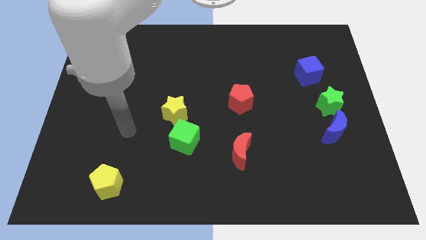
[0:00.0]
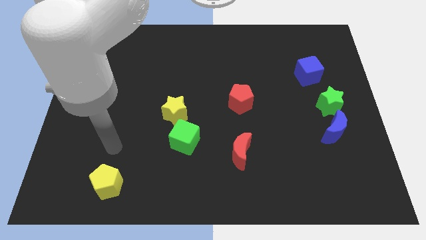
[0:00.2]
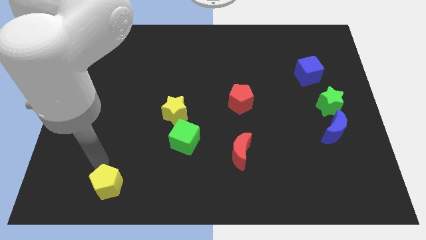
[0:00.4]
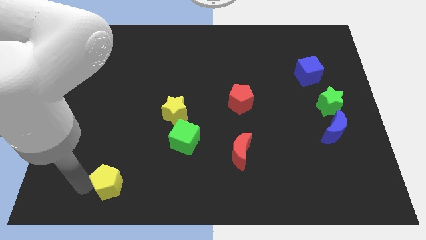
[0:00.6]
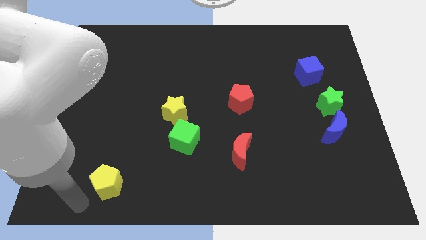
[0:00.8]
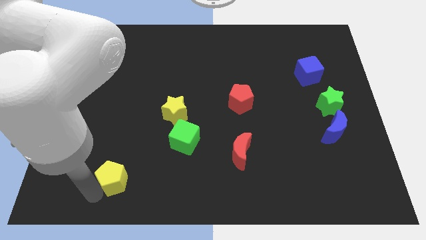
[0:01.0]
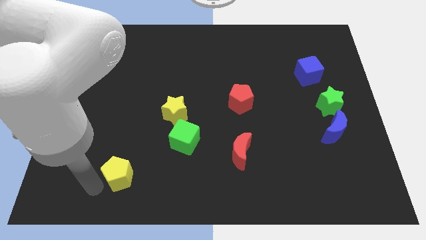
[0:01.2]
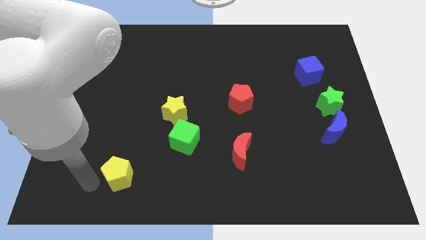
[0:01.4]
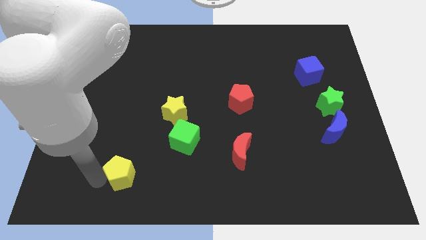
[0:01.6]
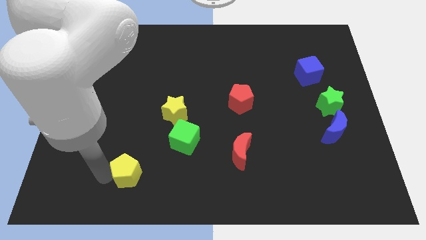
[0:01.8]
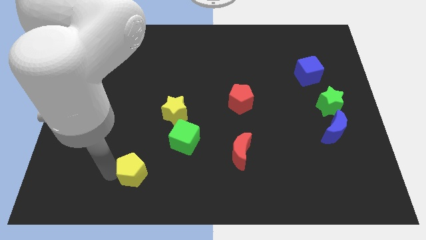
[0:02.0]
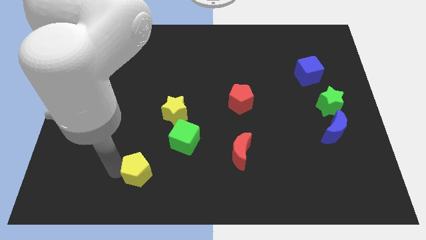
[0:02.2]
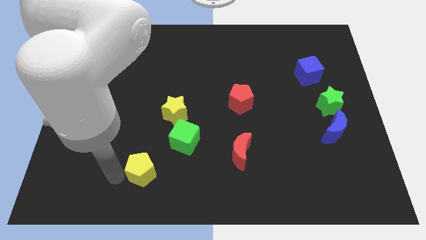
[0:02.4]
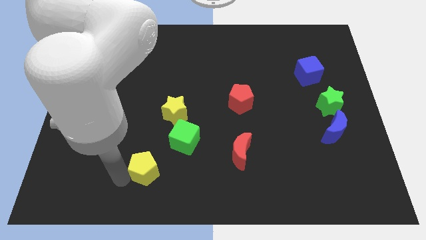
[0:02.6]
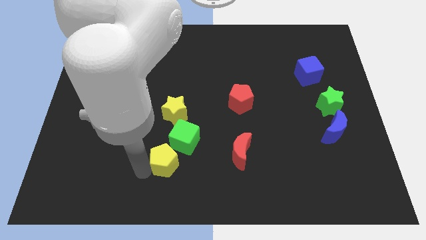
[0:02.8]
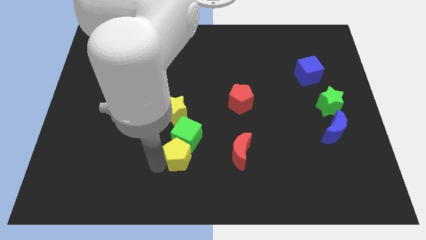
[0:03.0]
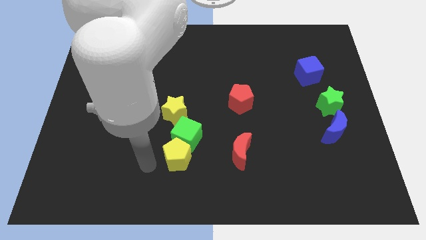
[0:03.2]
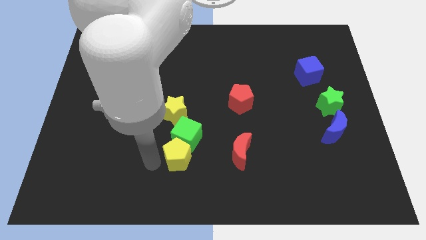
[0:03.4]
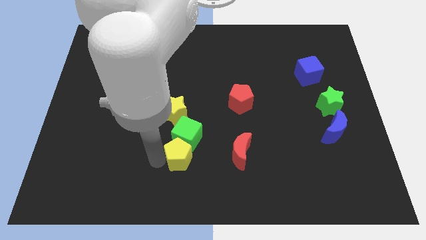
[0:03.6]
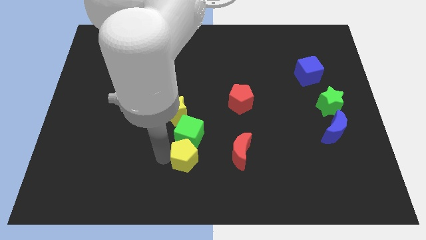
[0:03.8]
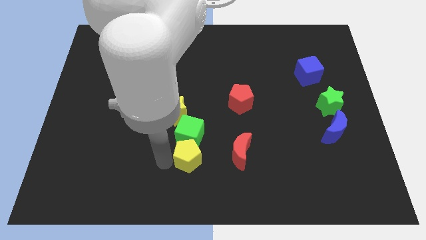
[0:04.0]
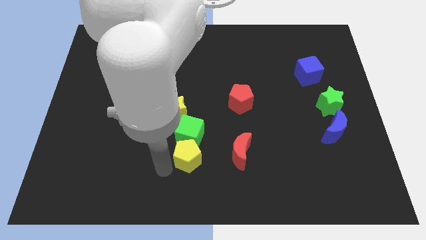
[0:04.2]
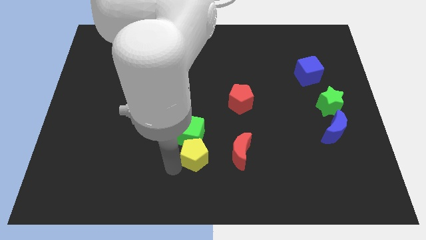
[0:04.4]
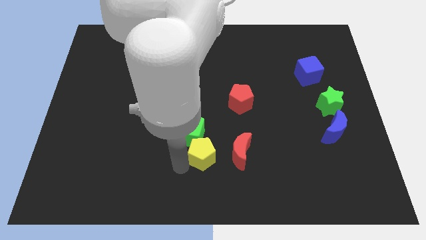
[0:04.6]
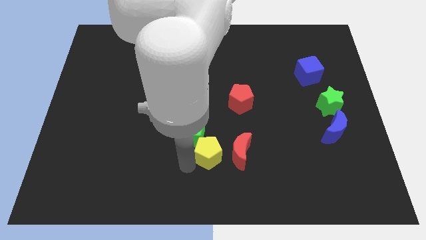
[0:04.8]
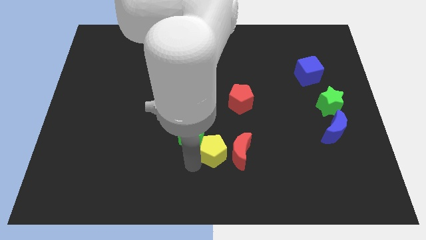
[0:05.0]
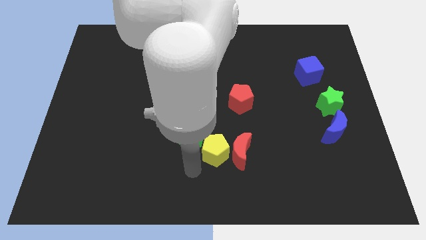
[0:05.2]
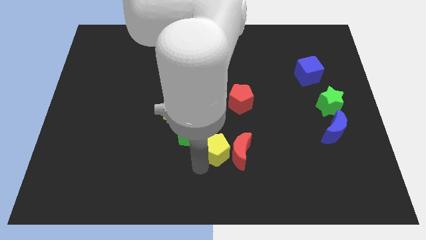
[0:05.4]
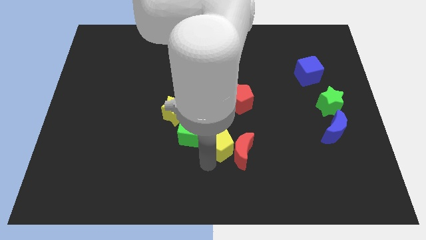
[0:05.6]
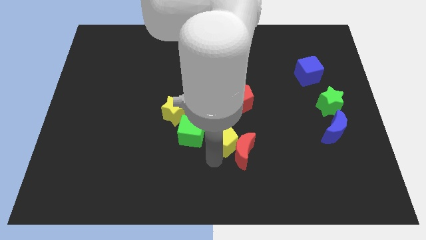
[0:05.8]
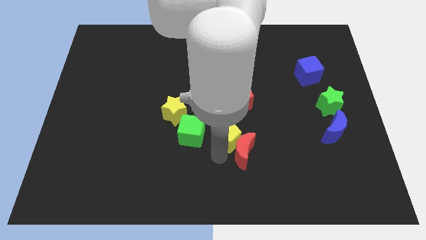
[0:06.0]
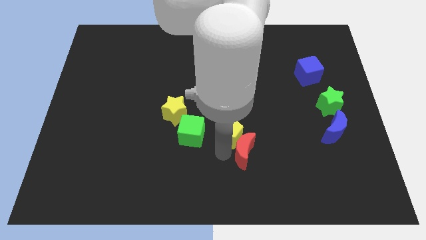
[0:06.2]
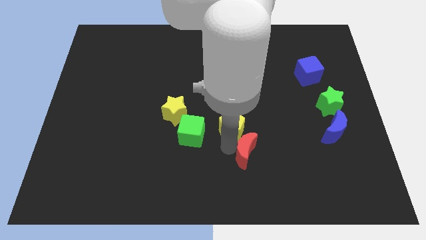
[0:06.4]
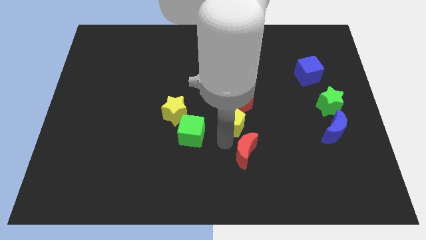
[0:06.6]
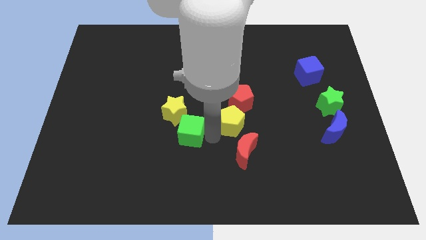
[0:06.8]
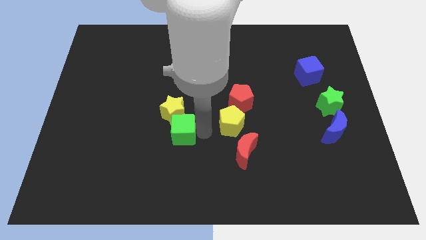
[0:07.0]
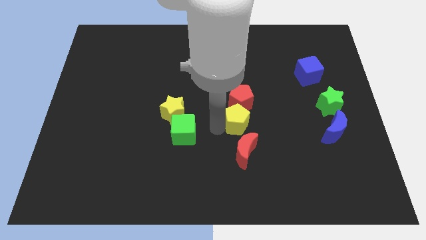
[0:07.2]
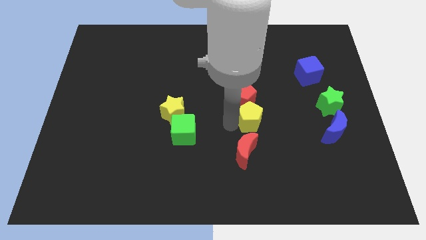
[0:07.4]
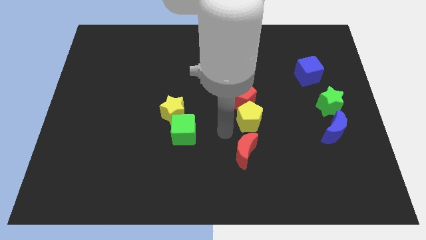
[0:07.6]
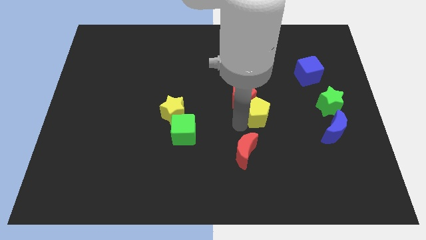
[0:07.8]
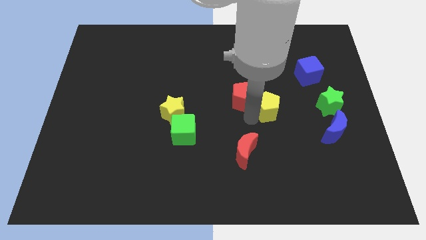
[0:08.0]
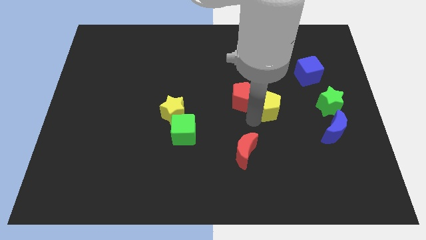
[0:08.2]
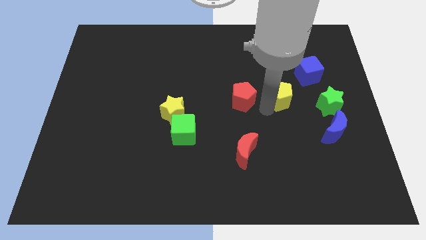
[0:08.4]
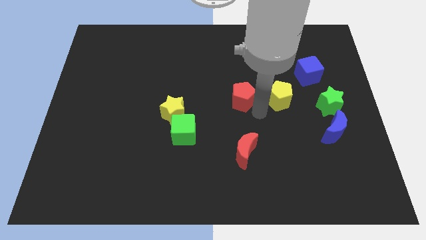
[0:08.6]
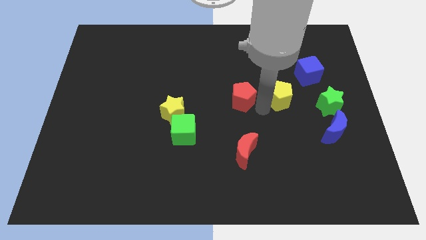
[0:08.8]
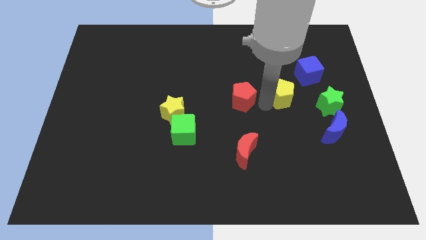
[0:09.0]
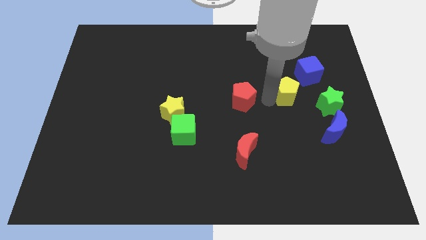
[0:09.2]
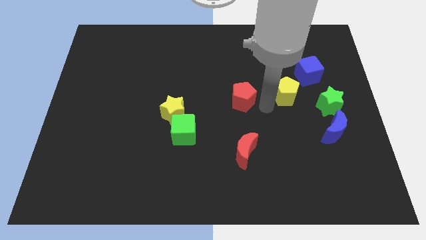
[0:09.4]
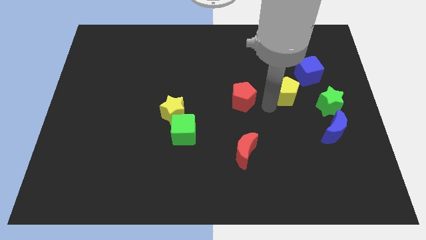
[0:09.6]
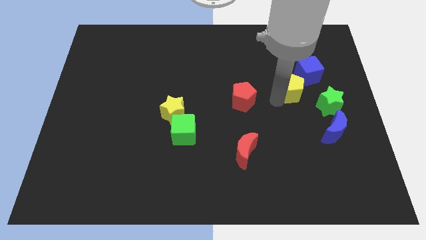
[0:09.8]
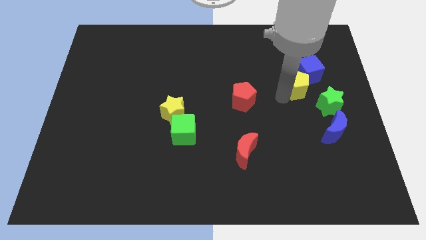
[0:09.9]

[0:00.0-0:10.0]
move the yellow pentagon close to the blue cube

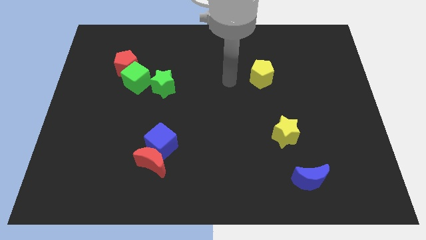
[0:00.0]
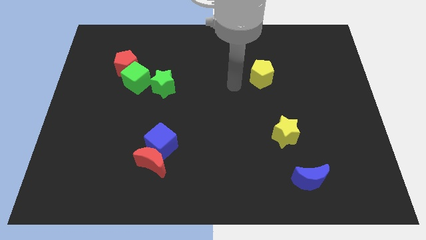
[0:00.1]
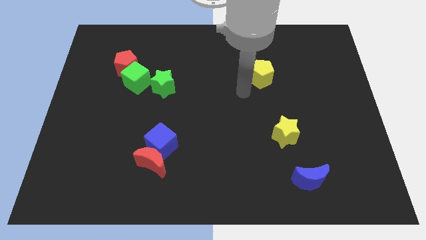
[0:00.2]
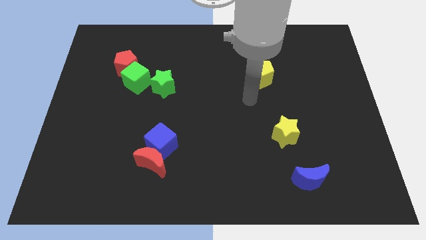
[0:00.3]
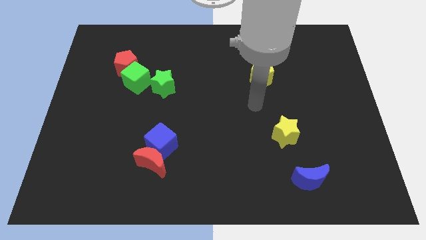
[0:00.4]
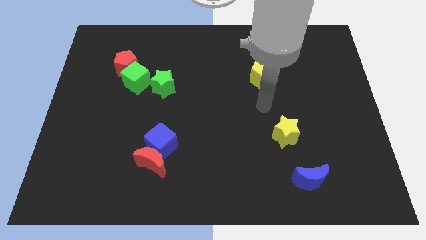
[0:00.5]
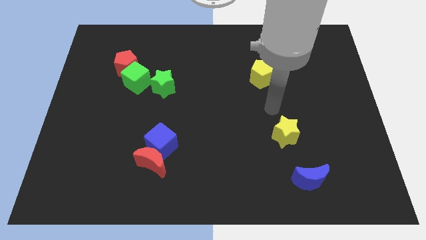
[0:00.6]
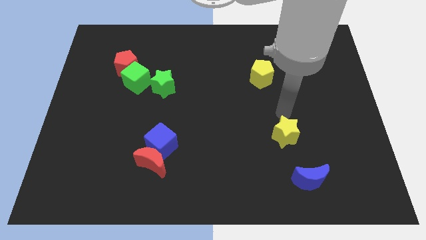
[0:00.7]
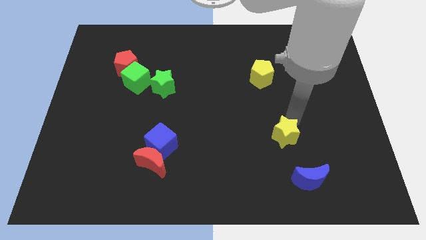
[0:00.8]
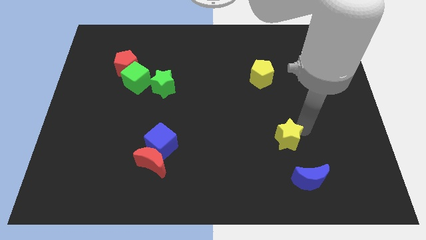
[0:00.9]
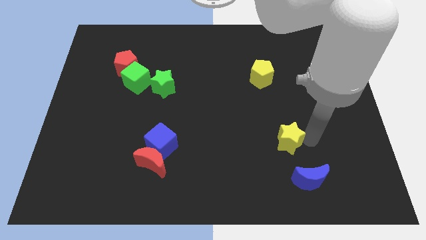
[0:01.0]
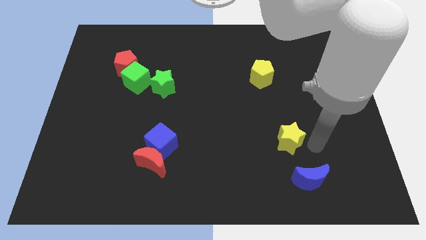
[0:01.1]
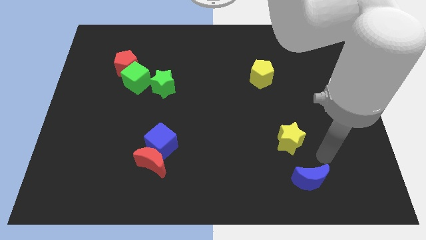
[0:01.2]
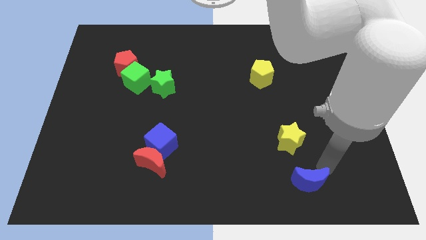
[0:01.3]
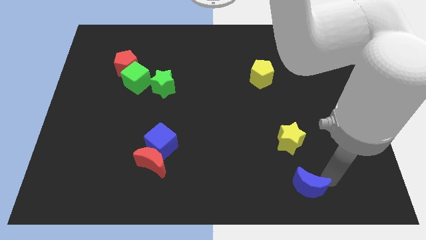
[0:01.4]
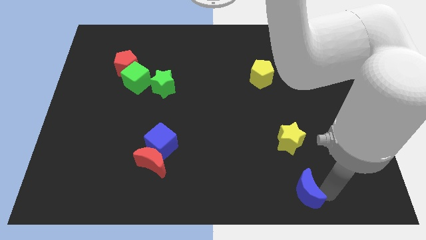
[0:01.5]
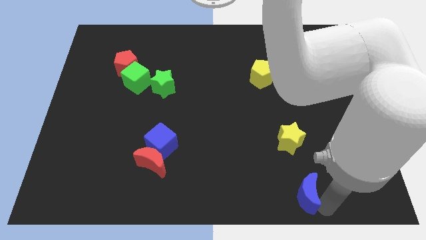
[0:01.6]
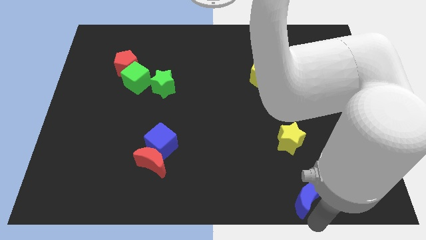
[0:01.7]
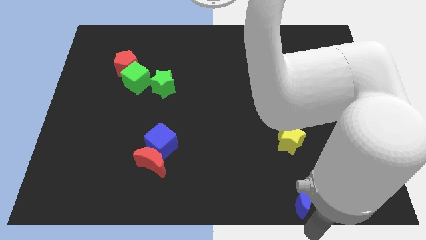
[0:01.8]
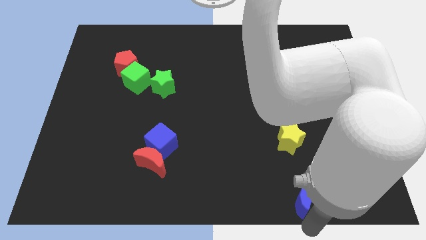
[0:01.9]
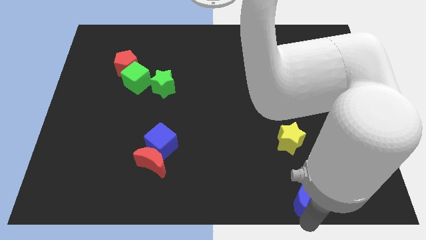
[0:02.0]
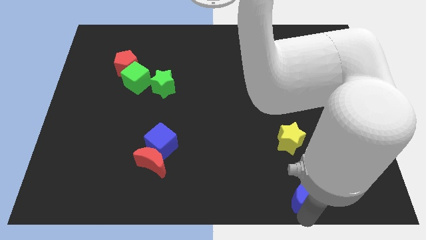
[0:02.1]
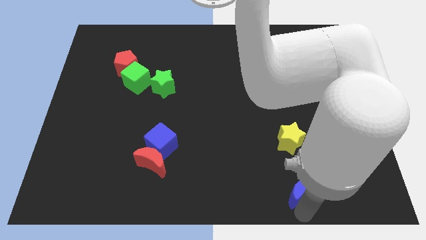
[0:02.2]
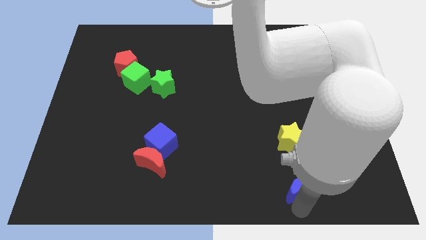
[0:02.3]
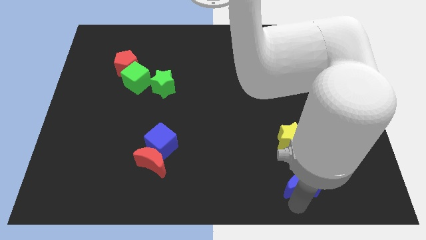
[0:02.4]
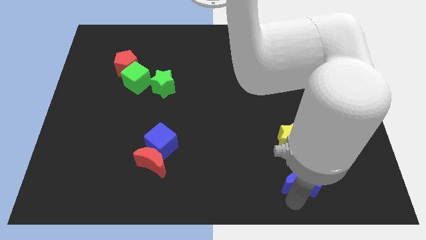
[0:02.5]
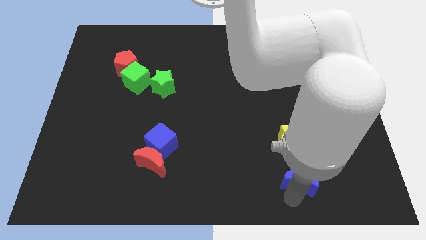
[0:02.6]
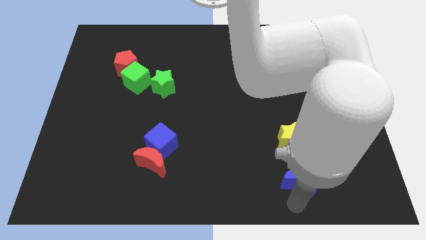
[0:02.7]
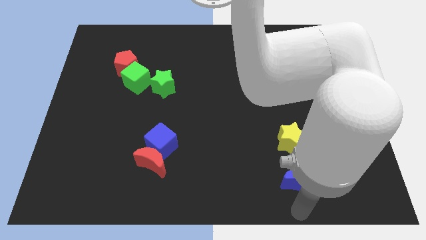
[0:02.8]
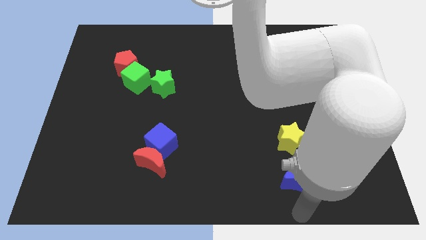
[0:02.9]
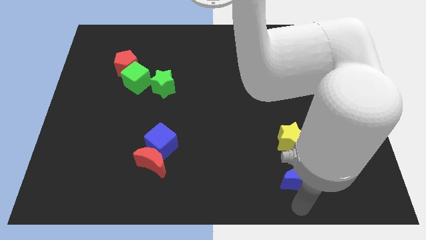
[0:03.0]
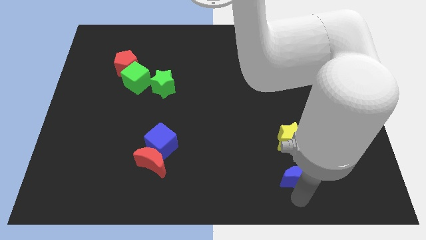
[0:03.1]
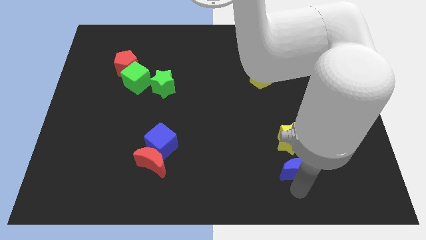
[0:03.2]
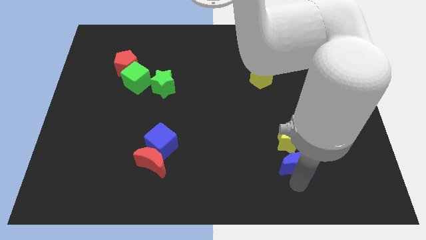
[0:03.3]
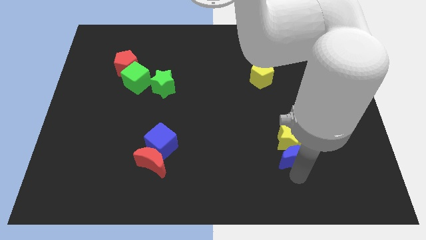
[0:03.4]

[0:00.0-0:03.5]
move the blue moon close to the yellow star
